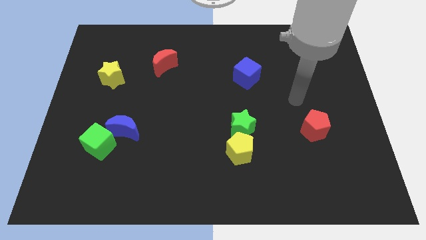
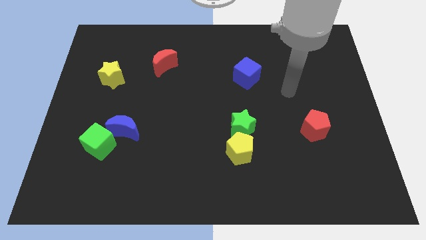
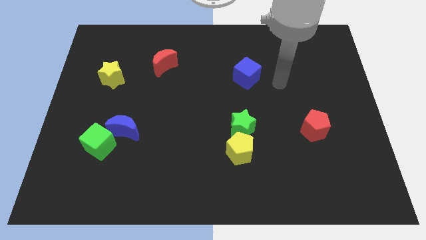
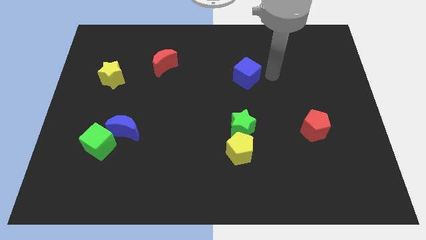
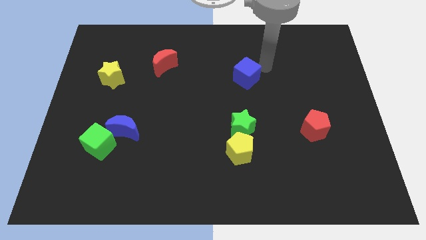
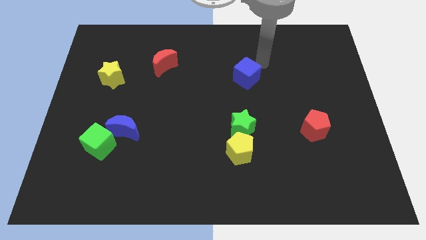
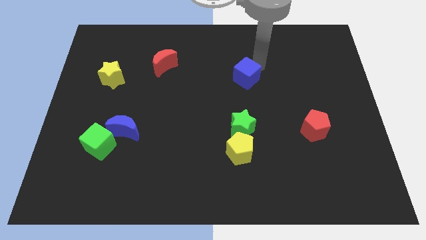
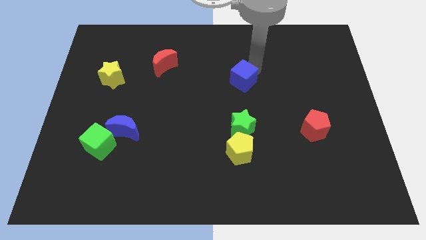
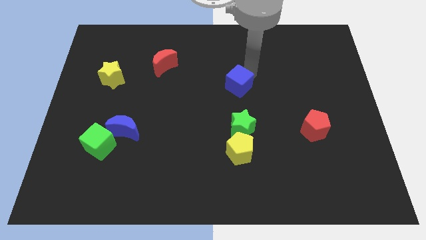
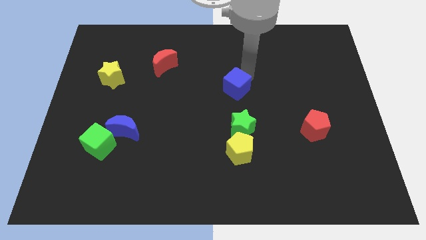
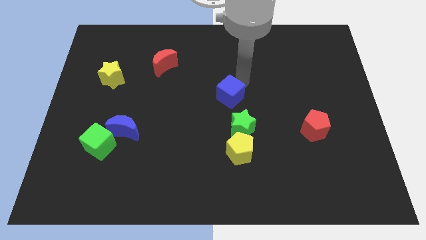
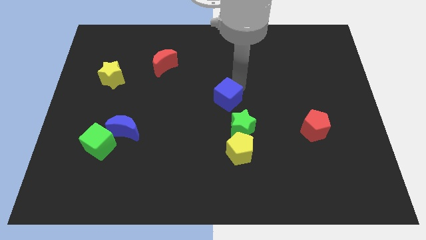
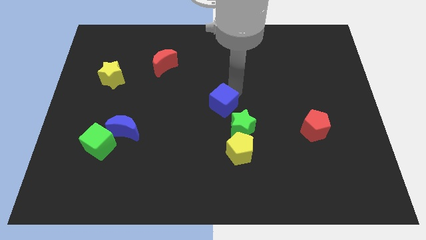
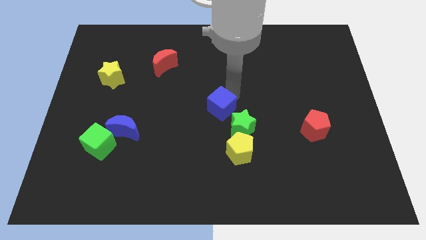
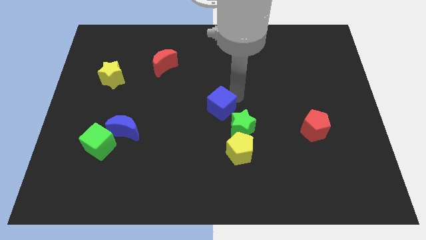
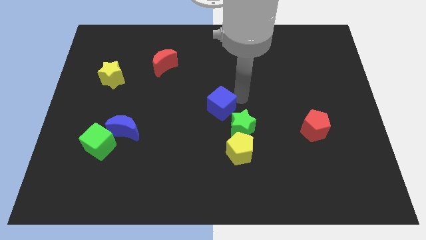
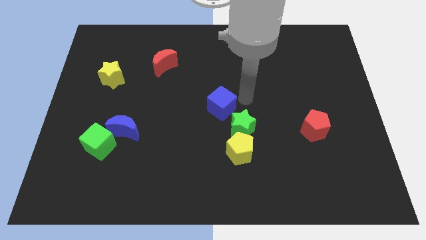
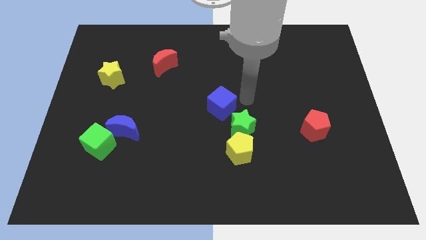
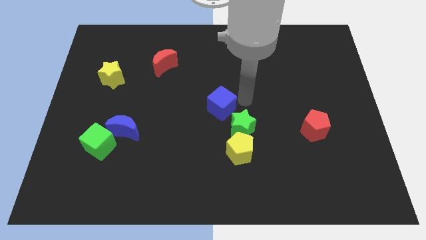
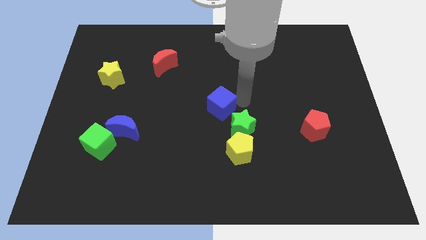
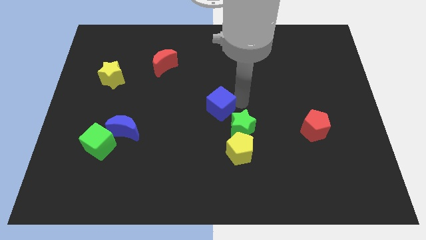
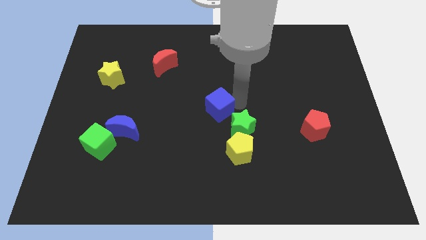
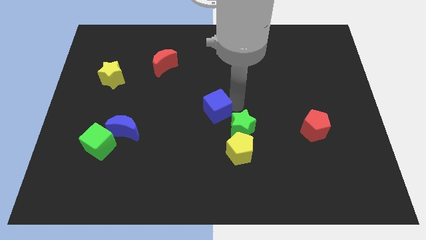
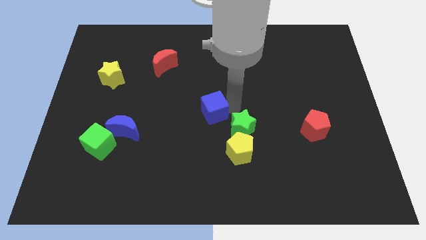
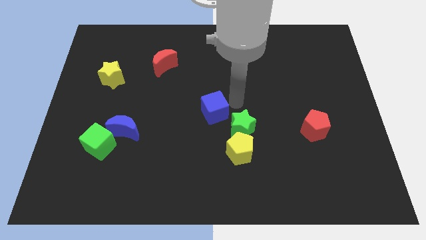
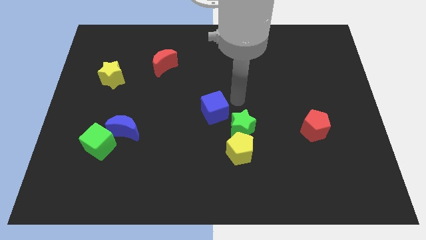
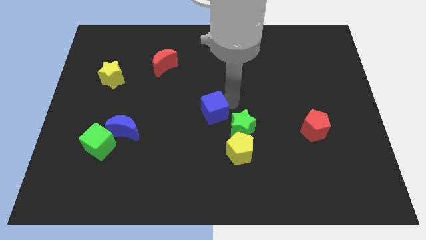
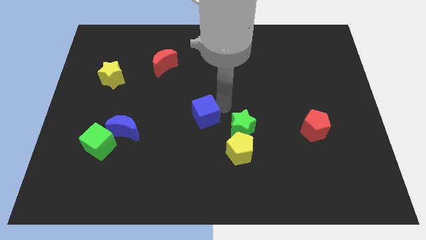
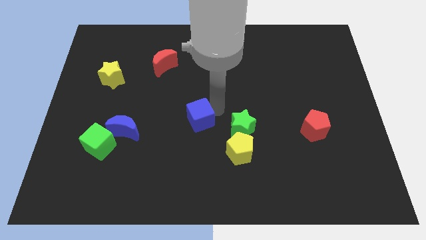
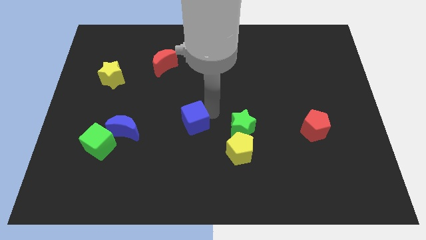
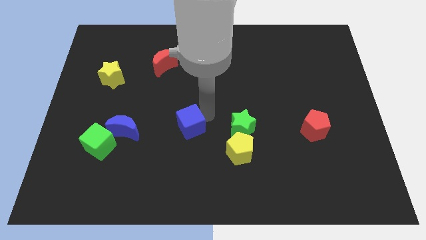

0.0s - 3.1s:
slide the blue cube downwards and to the left diagonally

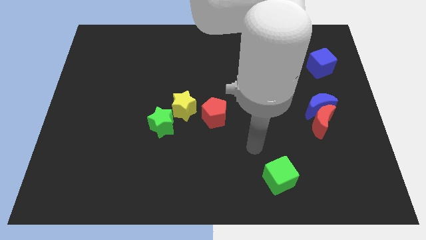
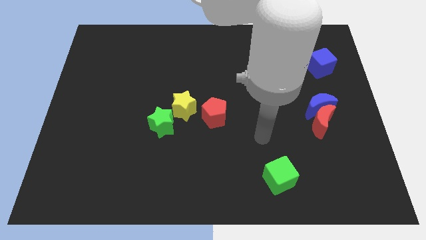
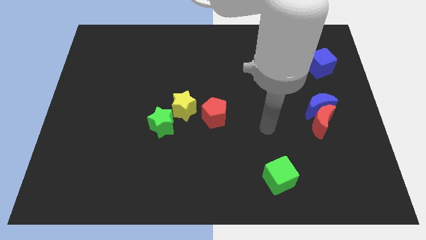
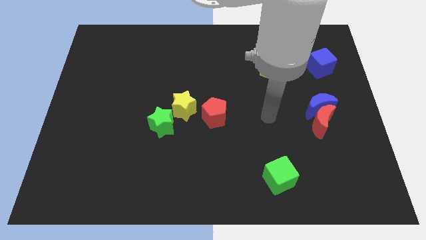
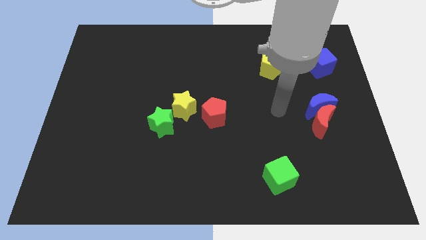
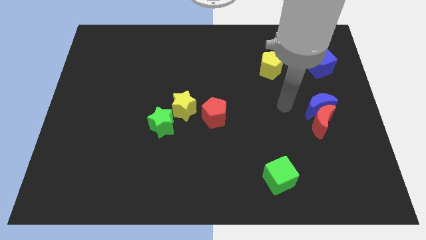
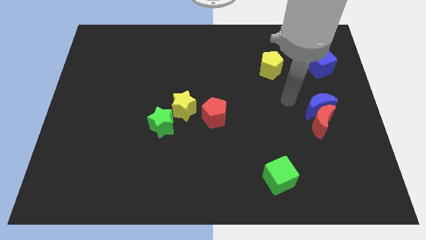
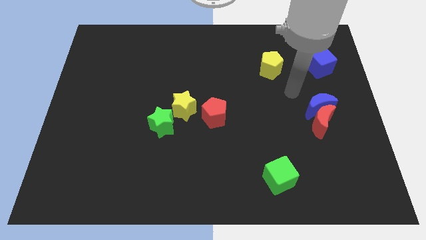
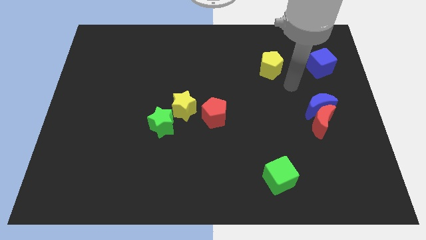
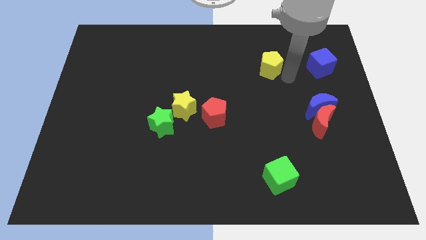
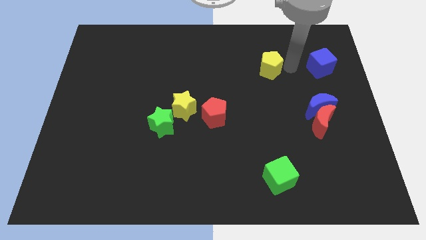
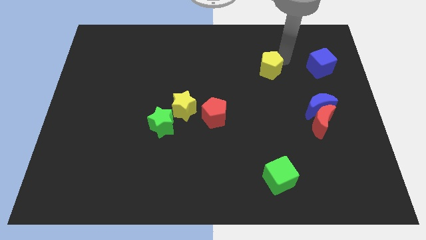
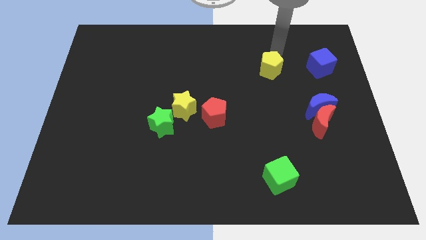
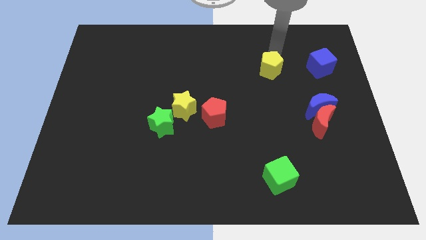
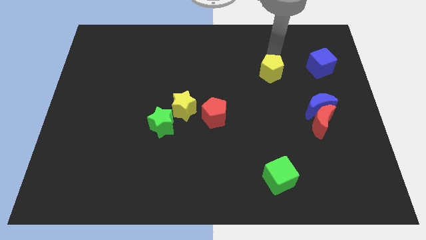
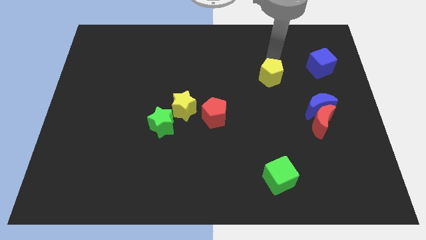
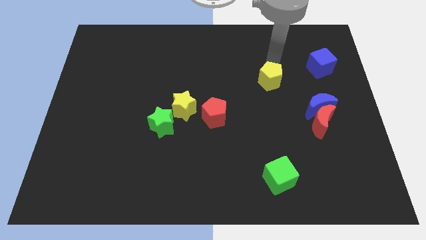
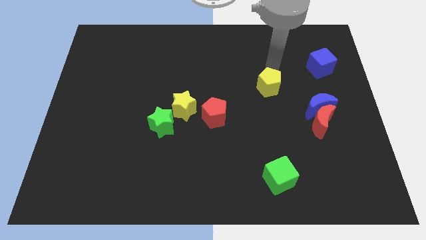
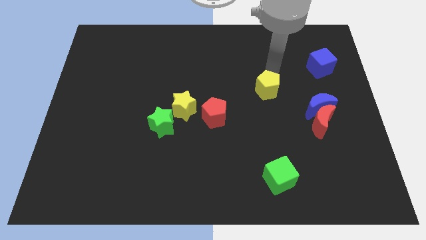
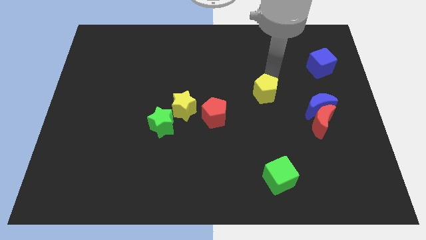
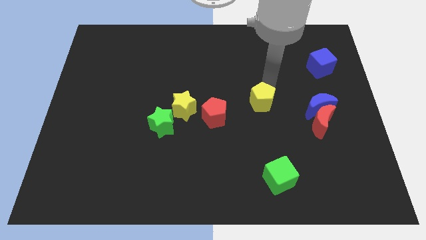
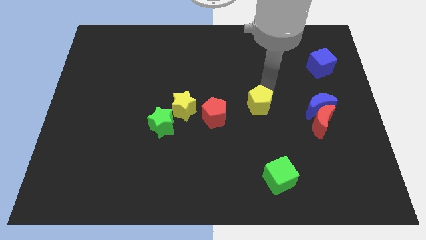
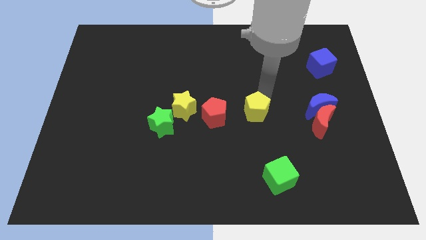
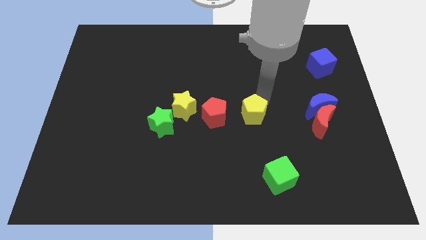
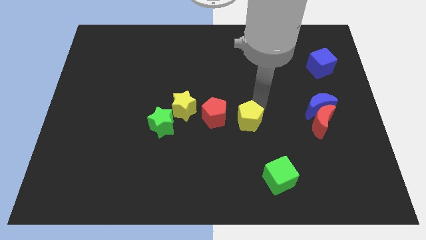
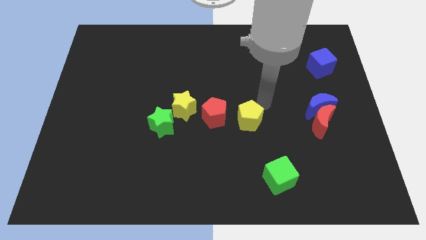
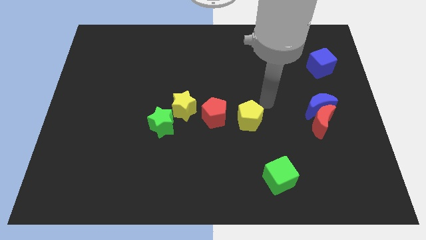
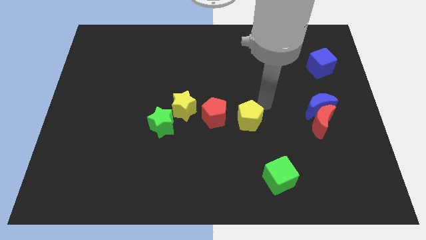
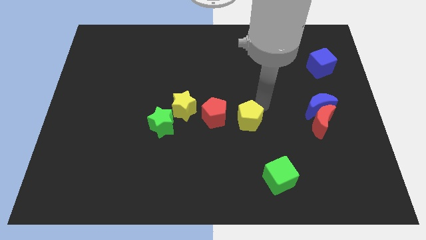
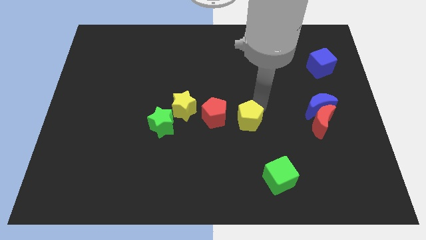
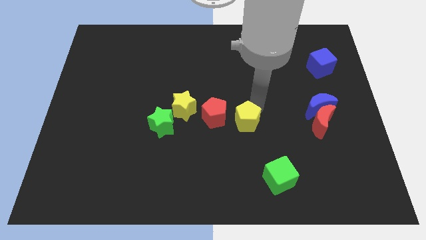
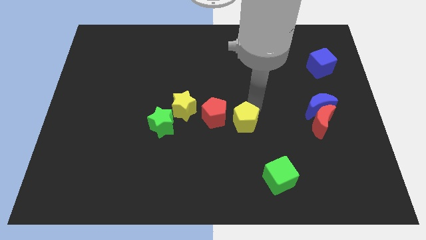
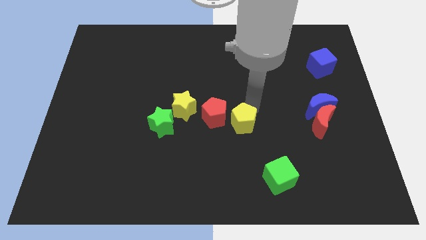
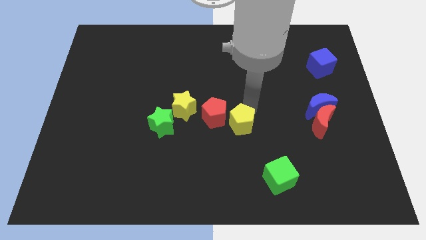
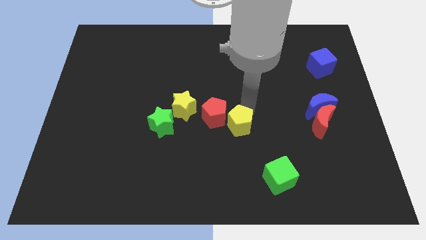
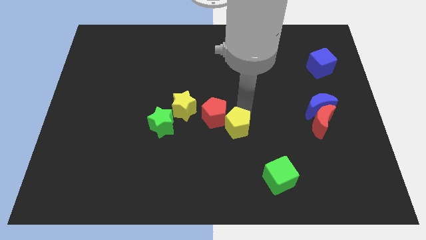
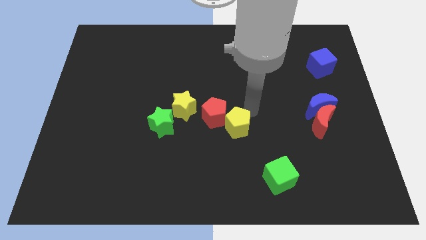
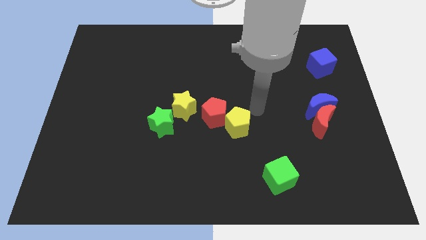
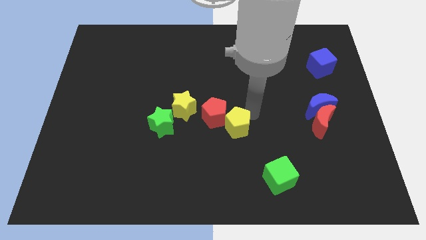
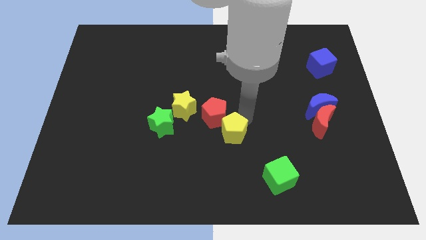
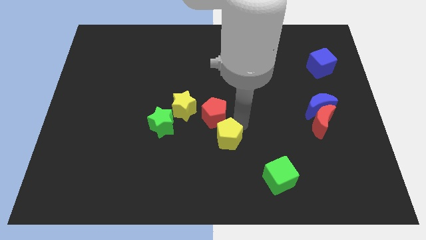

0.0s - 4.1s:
push the yellow pentagon down and left

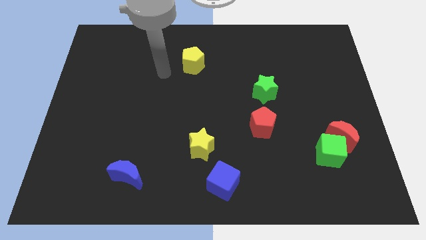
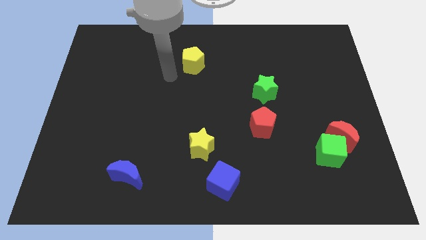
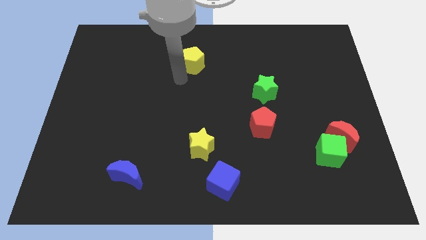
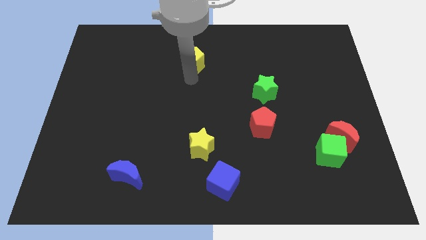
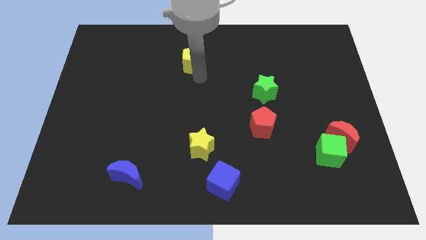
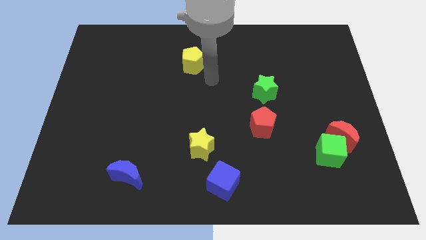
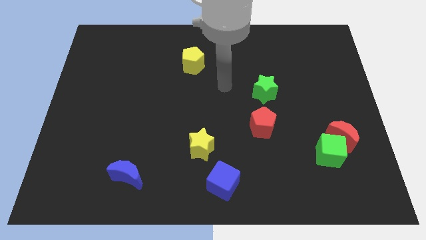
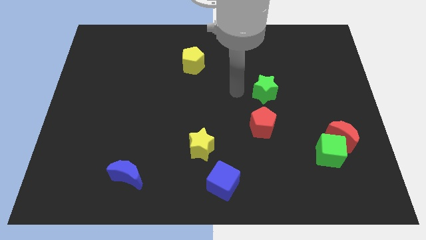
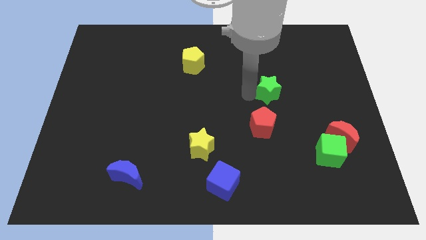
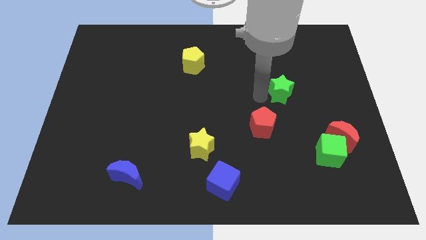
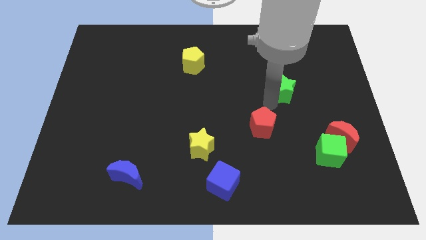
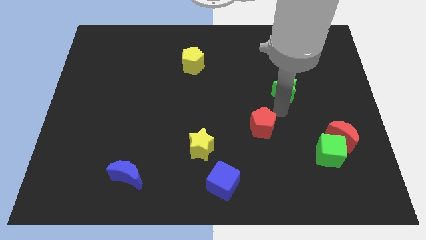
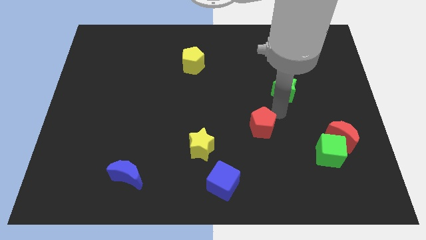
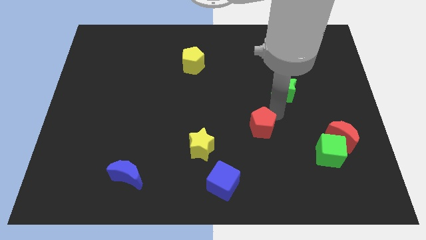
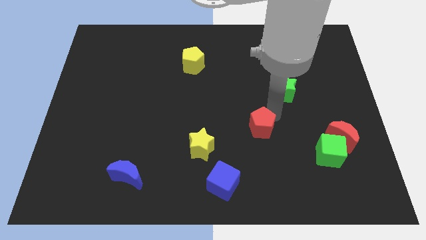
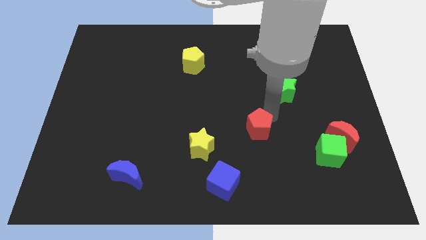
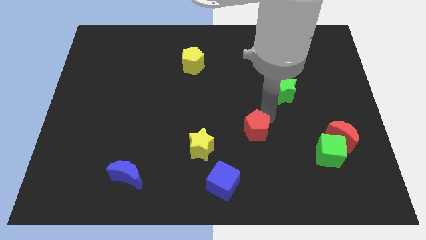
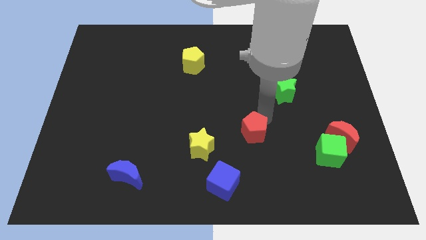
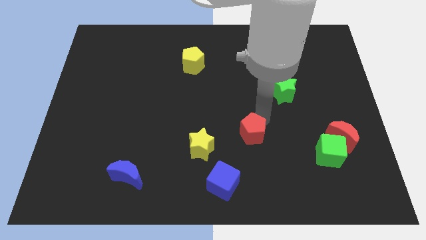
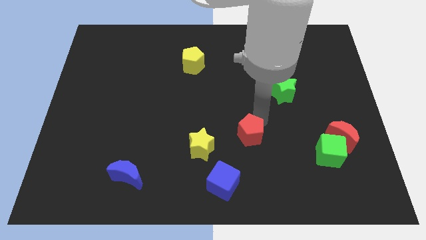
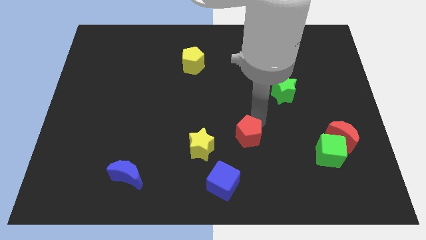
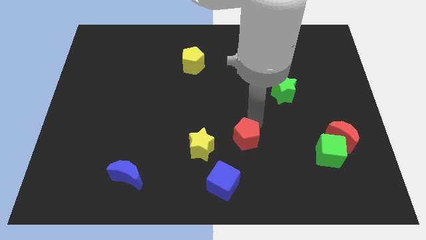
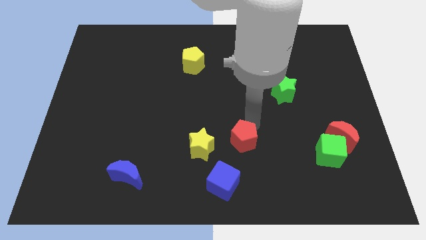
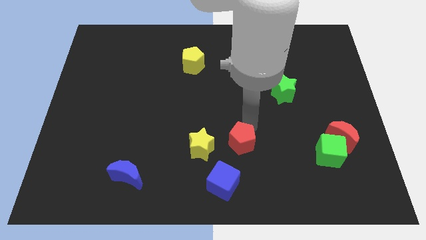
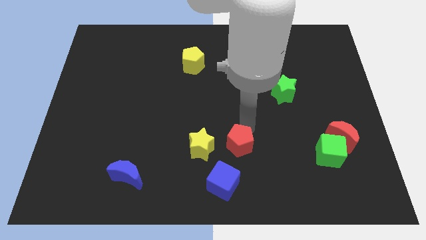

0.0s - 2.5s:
slide the red pentagon somewhat downwards and then to the left
